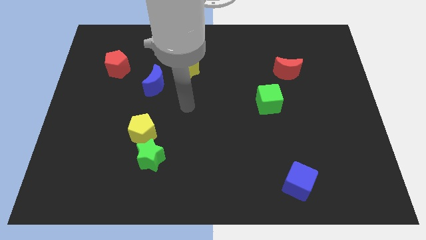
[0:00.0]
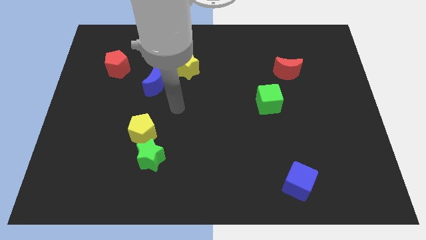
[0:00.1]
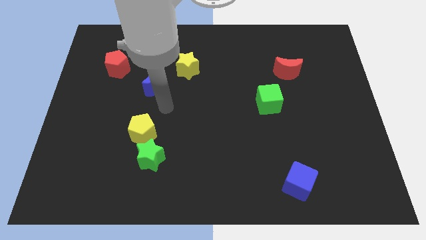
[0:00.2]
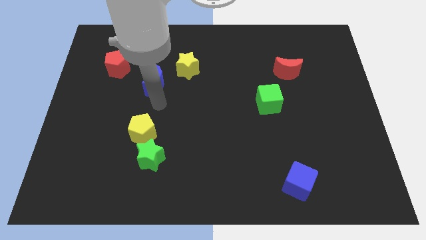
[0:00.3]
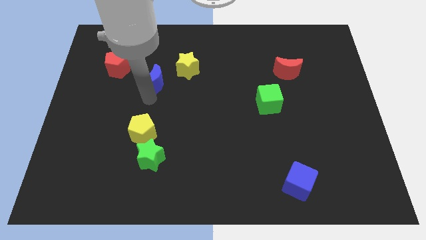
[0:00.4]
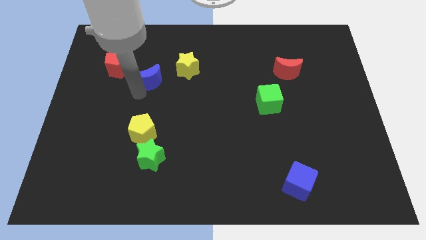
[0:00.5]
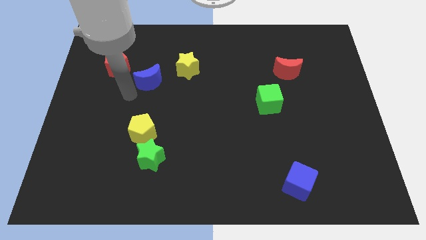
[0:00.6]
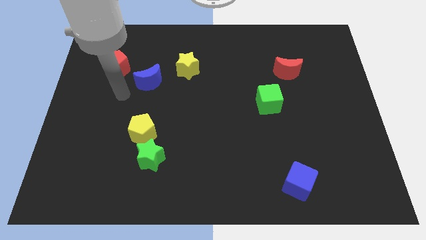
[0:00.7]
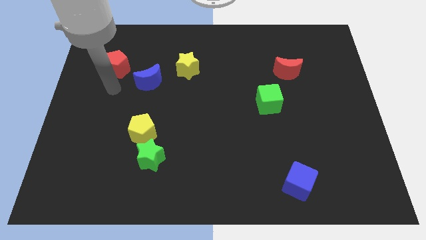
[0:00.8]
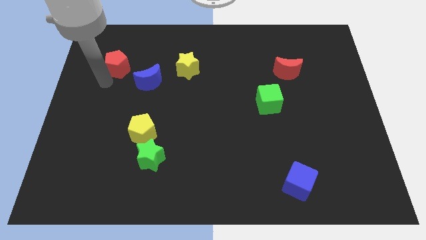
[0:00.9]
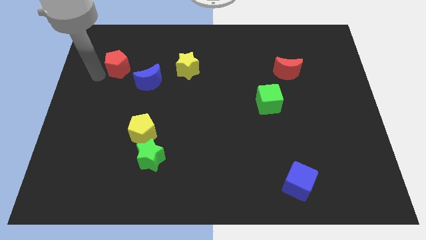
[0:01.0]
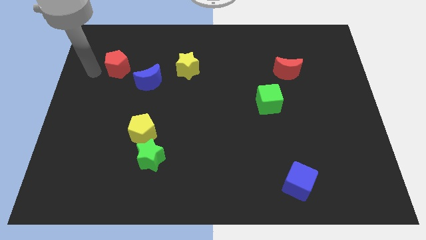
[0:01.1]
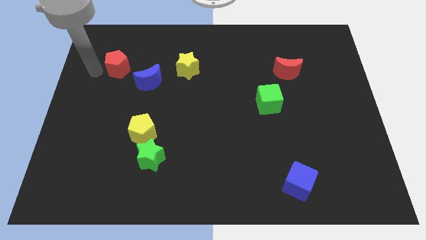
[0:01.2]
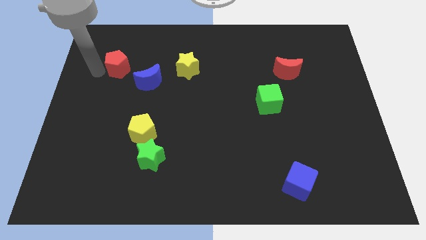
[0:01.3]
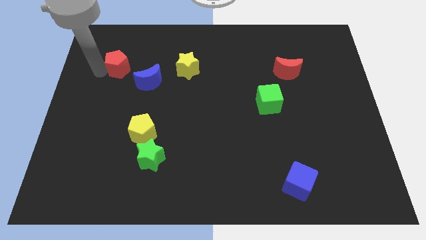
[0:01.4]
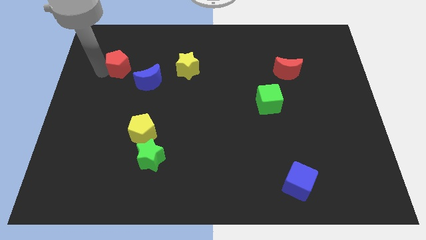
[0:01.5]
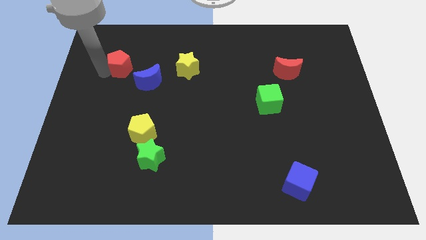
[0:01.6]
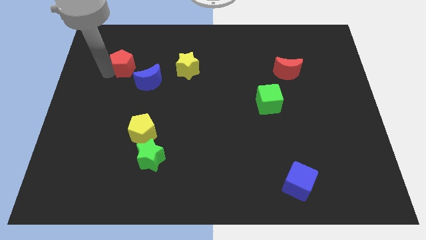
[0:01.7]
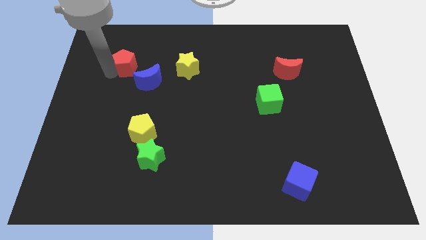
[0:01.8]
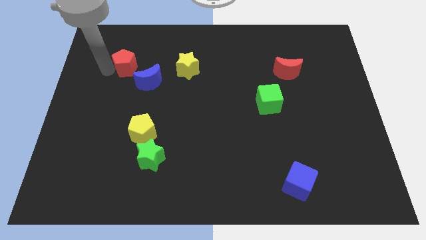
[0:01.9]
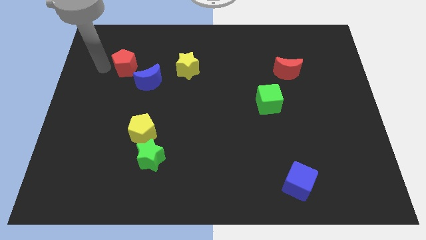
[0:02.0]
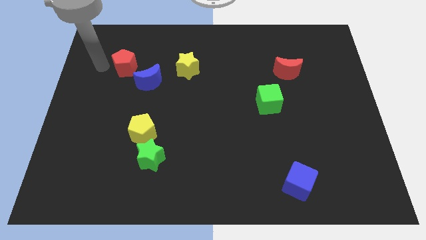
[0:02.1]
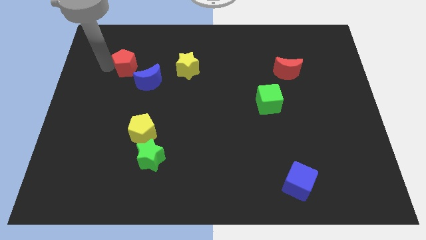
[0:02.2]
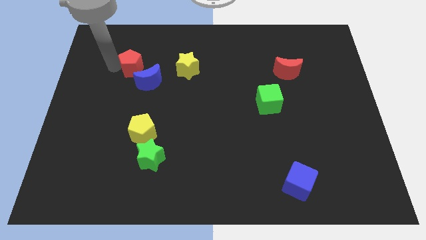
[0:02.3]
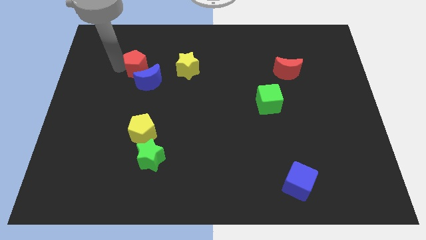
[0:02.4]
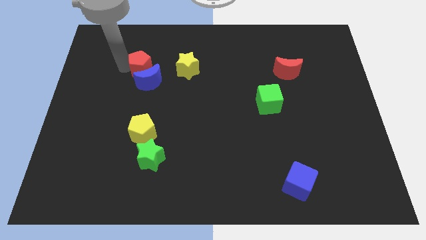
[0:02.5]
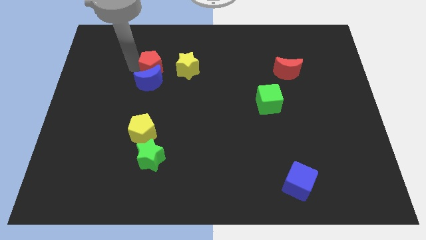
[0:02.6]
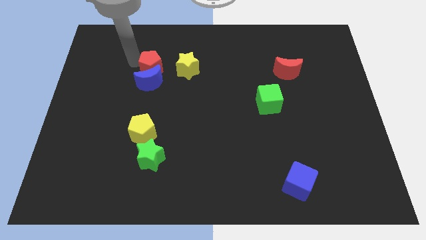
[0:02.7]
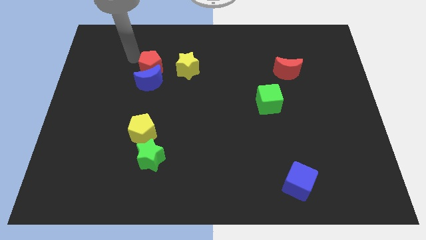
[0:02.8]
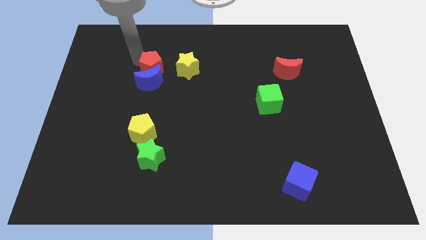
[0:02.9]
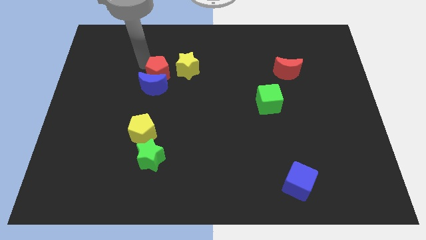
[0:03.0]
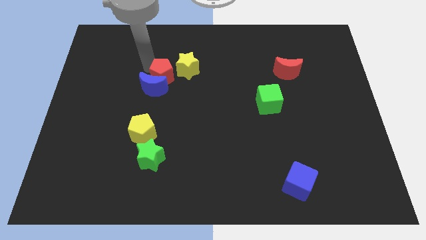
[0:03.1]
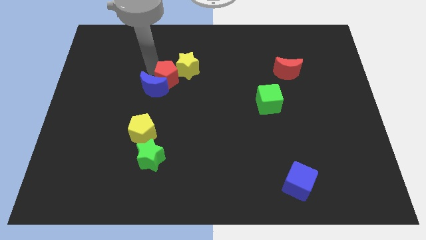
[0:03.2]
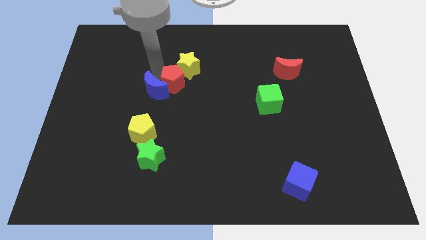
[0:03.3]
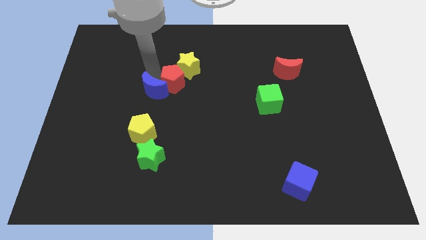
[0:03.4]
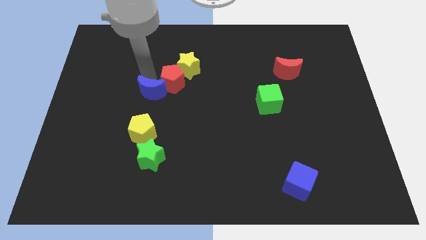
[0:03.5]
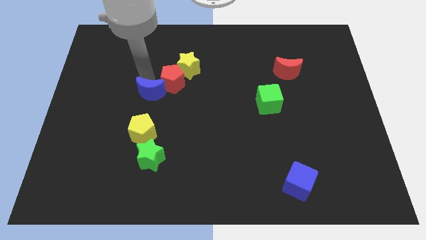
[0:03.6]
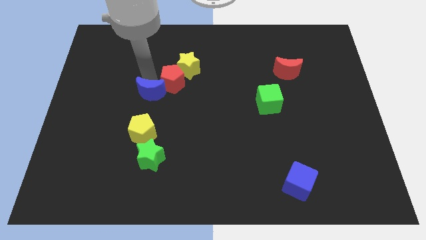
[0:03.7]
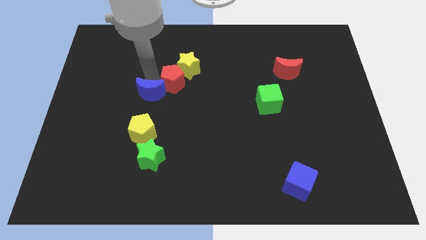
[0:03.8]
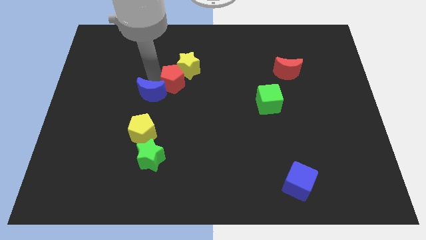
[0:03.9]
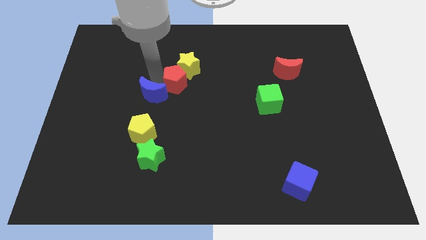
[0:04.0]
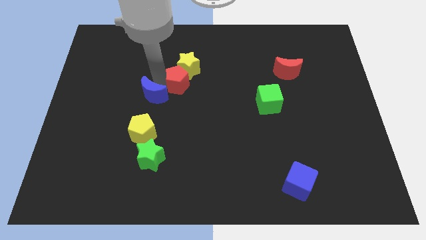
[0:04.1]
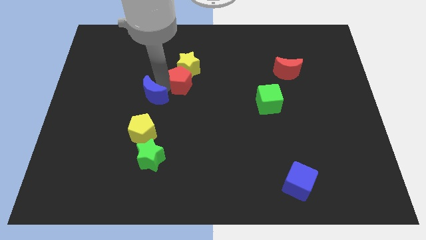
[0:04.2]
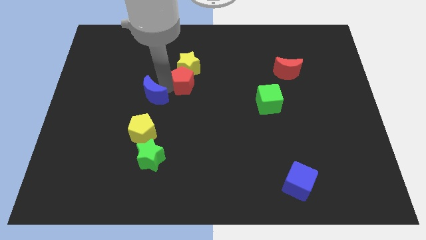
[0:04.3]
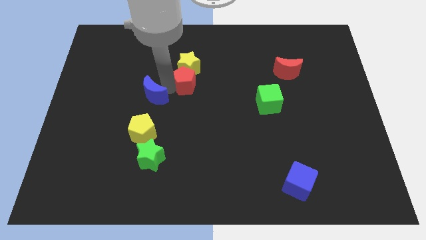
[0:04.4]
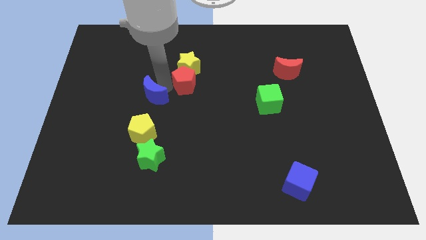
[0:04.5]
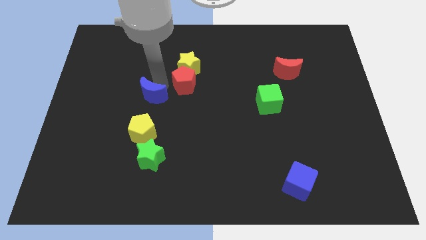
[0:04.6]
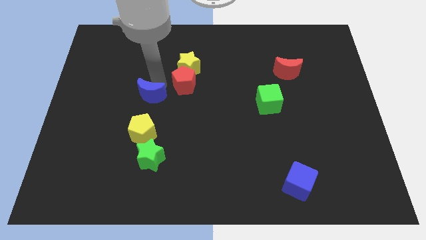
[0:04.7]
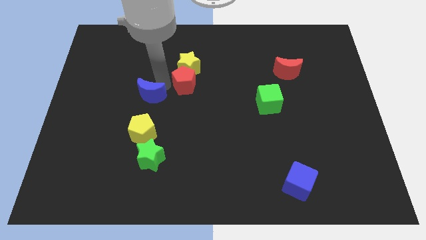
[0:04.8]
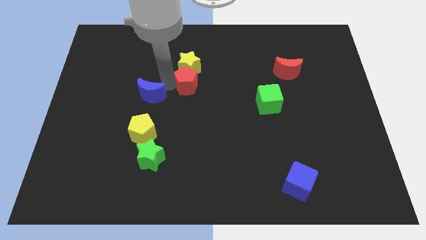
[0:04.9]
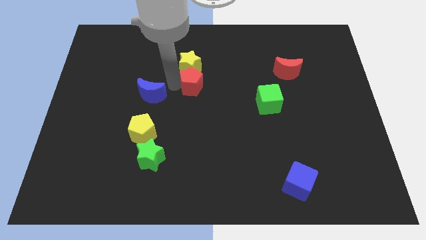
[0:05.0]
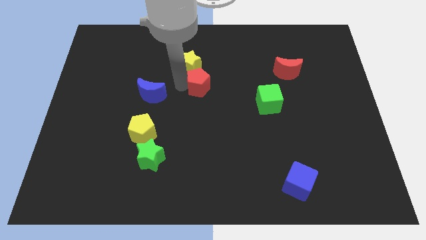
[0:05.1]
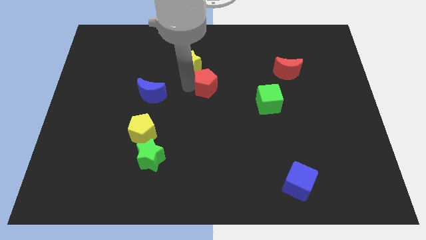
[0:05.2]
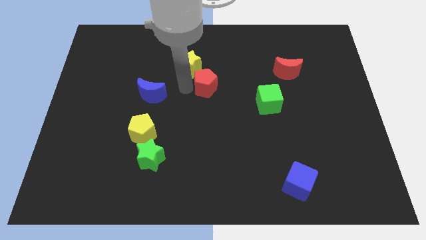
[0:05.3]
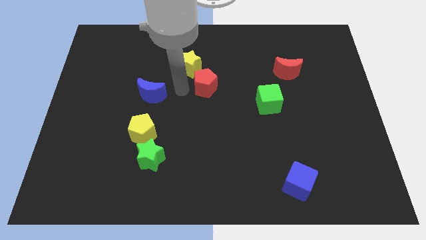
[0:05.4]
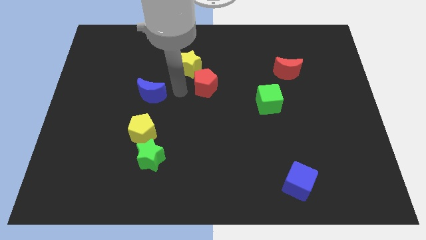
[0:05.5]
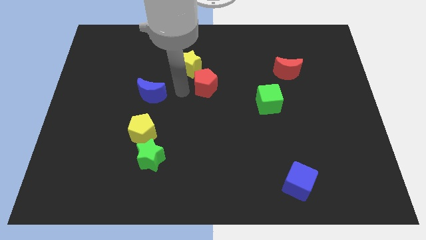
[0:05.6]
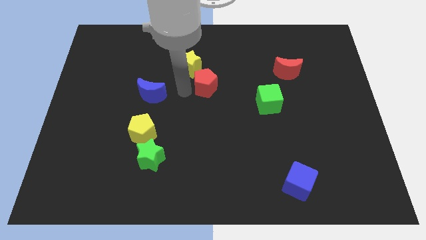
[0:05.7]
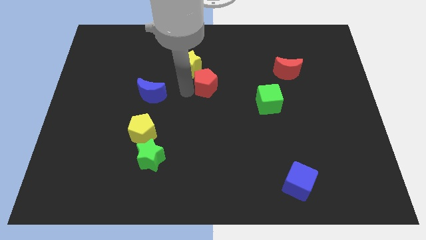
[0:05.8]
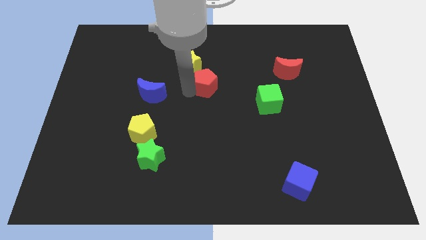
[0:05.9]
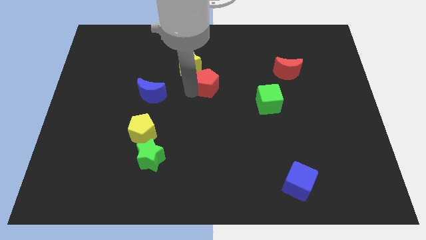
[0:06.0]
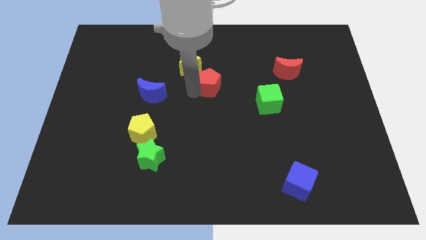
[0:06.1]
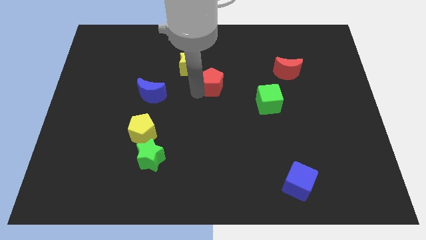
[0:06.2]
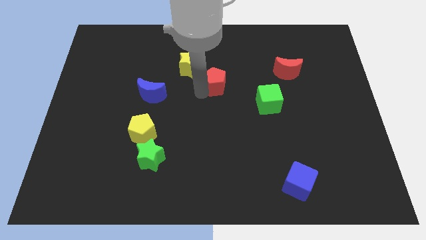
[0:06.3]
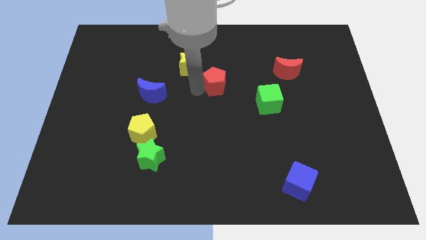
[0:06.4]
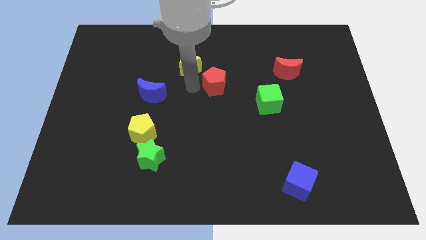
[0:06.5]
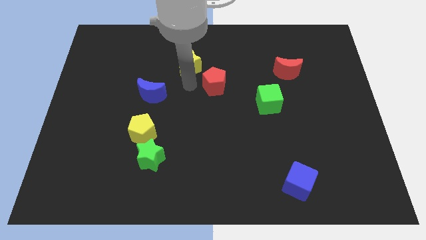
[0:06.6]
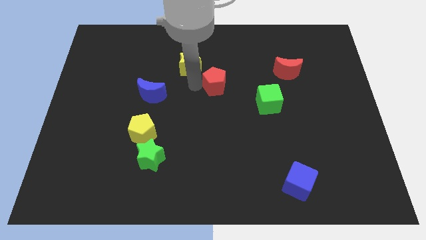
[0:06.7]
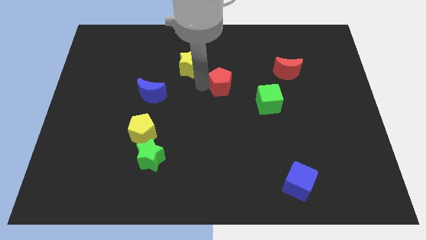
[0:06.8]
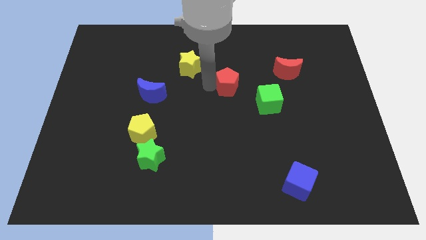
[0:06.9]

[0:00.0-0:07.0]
move the red pentagon to the top left of the green cube
